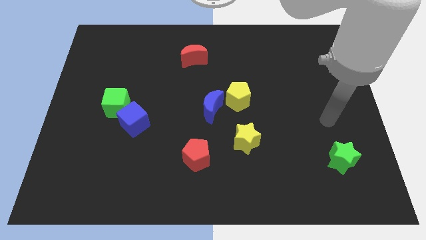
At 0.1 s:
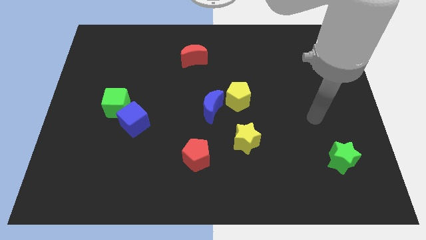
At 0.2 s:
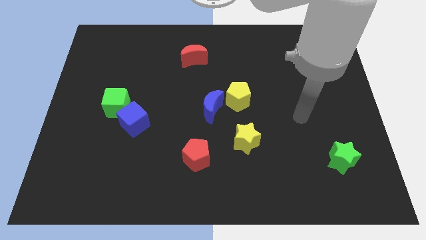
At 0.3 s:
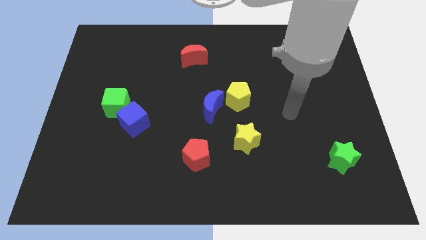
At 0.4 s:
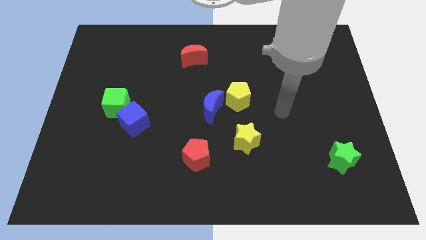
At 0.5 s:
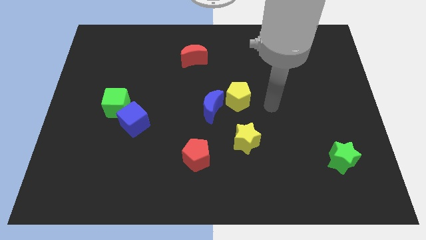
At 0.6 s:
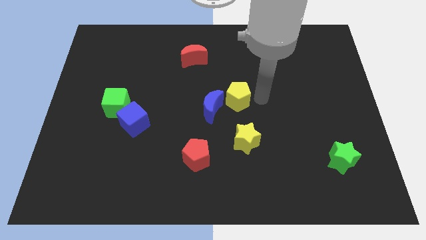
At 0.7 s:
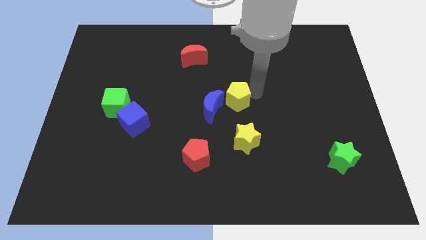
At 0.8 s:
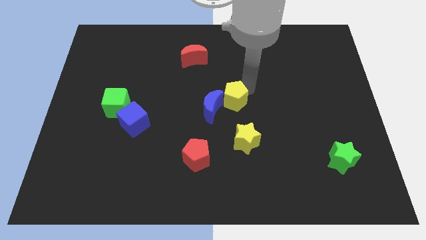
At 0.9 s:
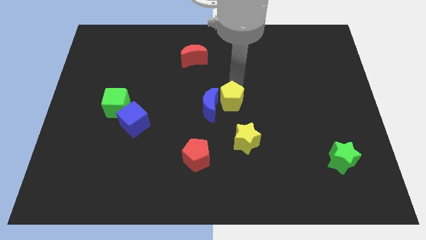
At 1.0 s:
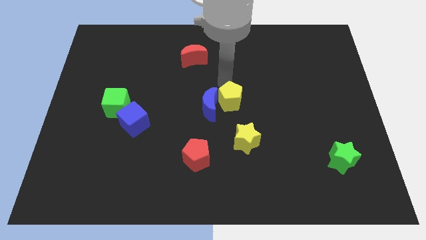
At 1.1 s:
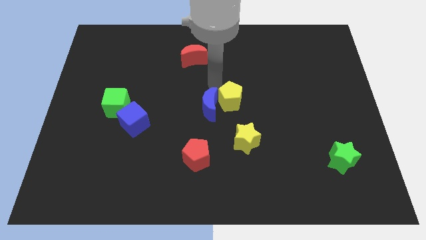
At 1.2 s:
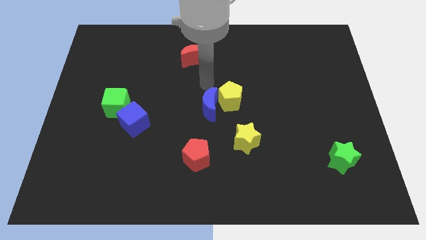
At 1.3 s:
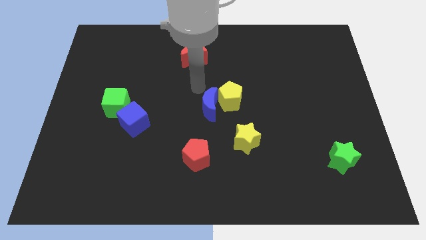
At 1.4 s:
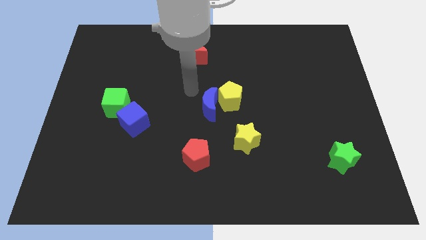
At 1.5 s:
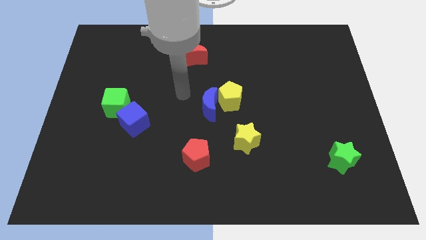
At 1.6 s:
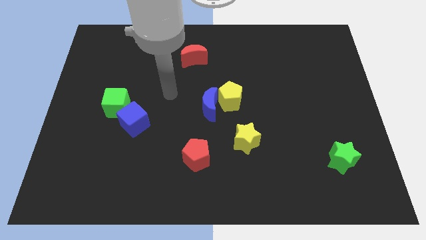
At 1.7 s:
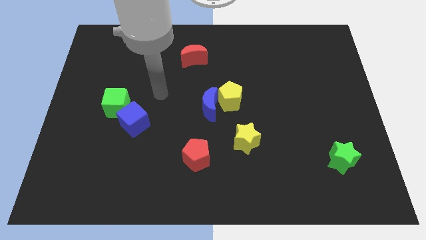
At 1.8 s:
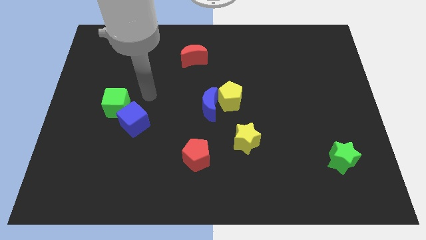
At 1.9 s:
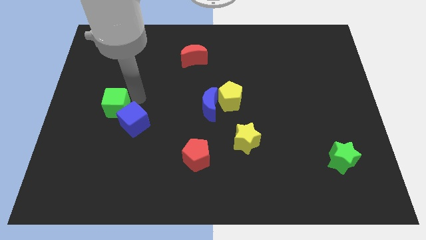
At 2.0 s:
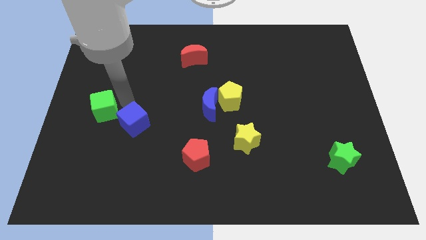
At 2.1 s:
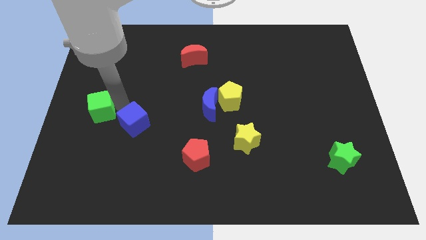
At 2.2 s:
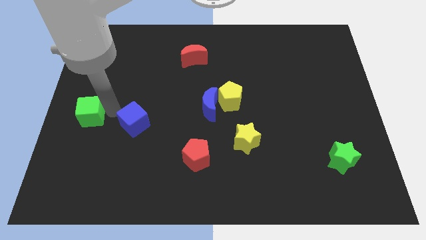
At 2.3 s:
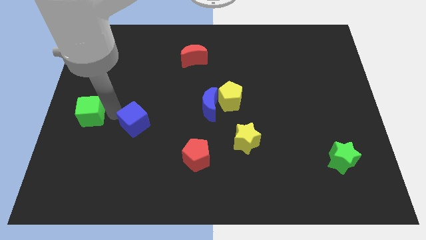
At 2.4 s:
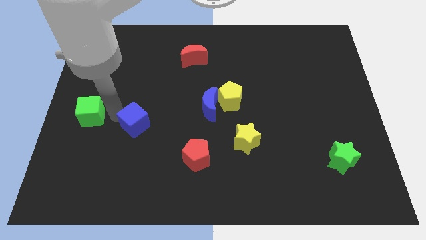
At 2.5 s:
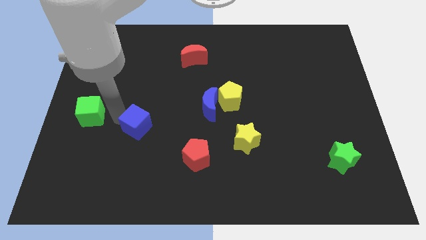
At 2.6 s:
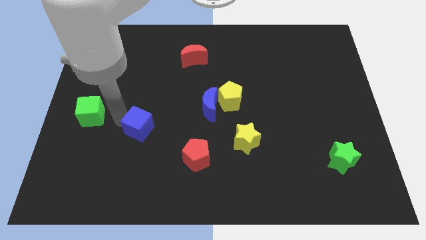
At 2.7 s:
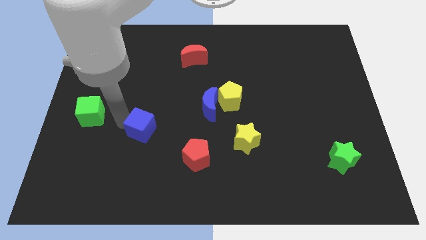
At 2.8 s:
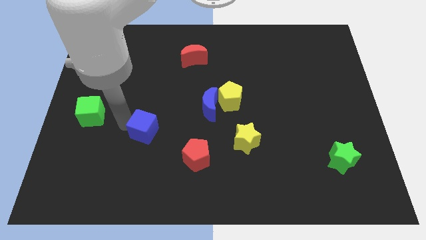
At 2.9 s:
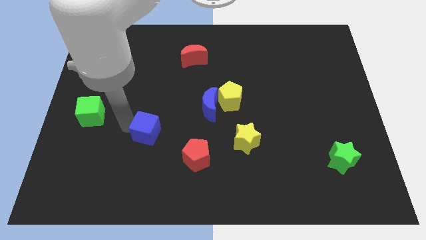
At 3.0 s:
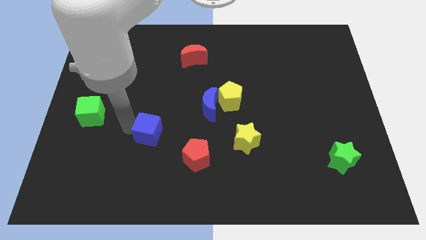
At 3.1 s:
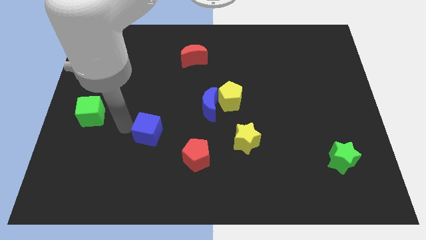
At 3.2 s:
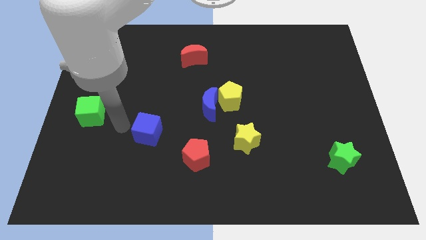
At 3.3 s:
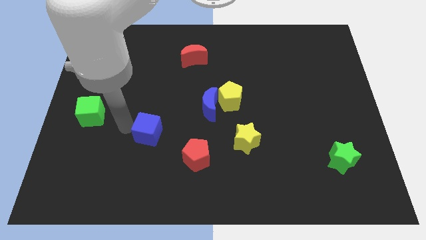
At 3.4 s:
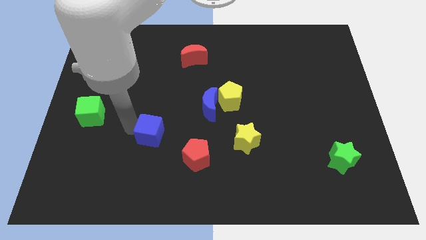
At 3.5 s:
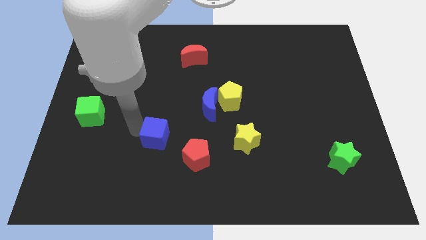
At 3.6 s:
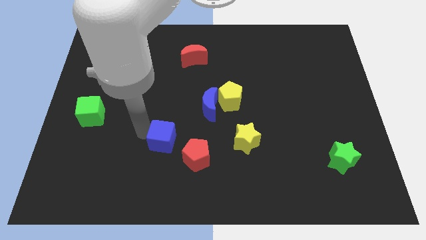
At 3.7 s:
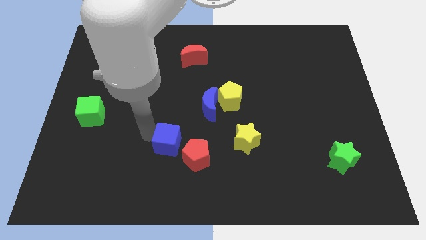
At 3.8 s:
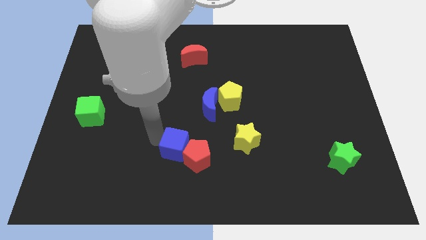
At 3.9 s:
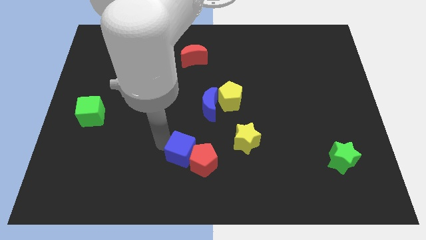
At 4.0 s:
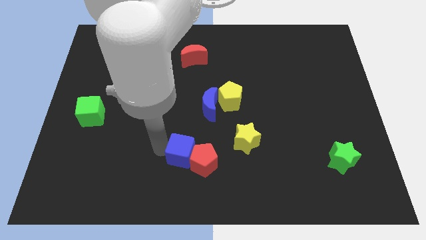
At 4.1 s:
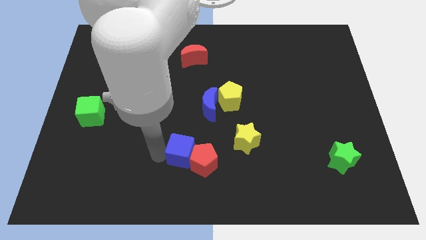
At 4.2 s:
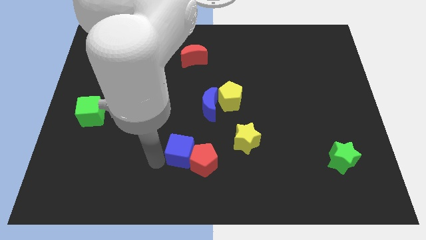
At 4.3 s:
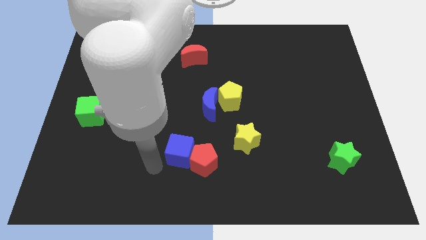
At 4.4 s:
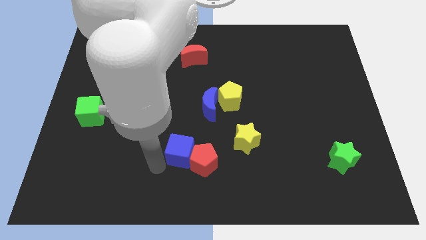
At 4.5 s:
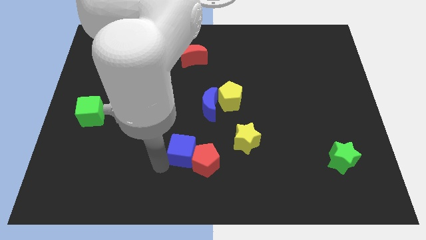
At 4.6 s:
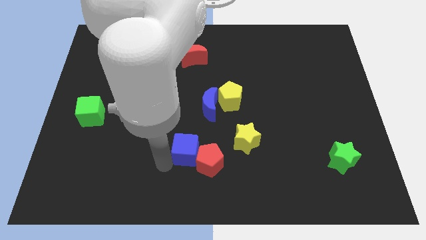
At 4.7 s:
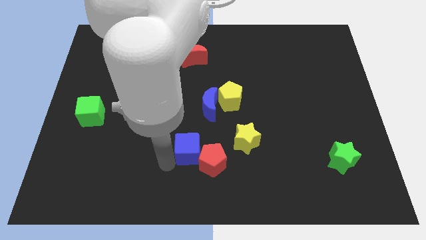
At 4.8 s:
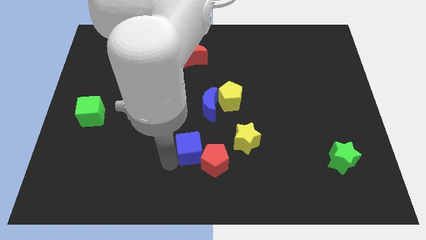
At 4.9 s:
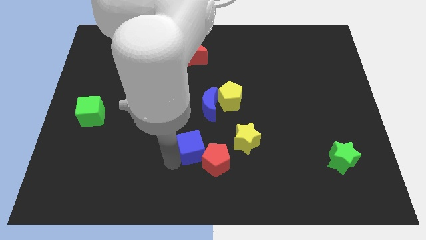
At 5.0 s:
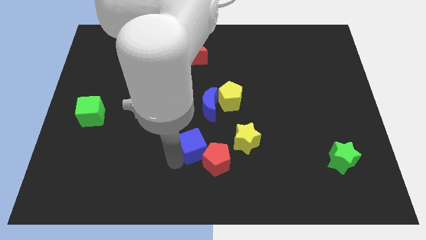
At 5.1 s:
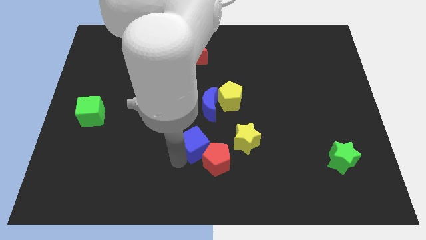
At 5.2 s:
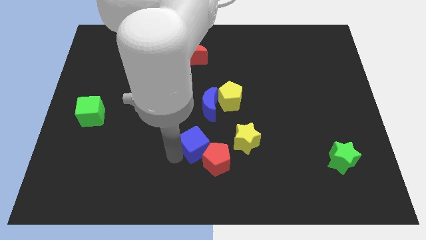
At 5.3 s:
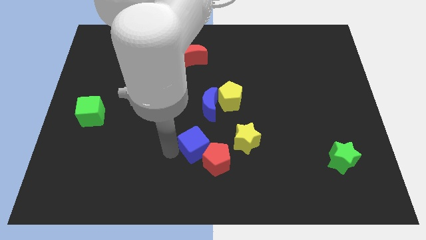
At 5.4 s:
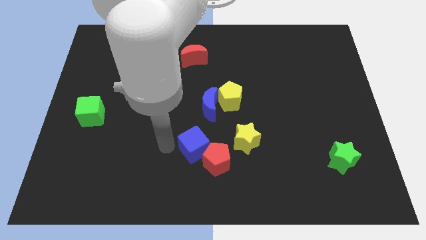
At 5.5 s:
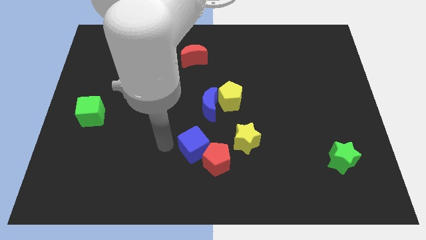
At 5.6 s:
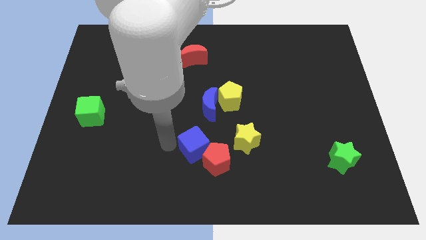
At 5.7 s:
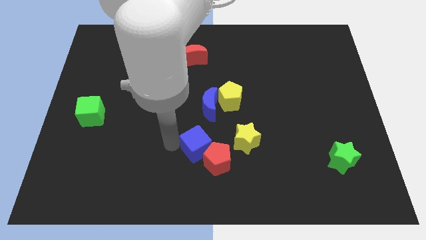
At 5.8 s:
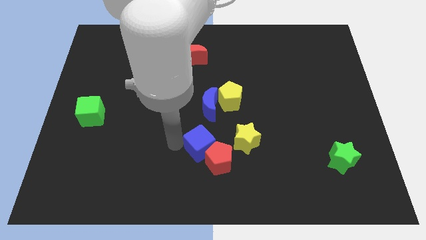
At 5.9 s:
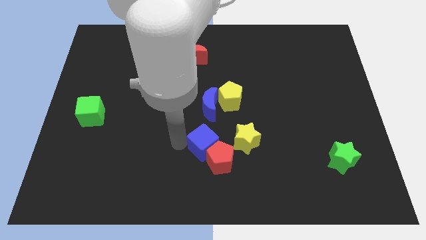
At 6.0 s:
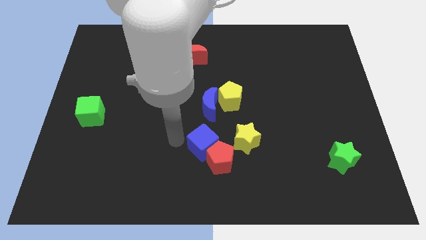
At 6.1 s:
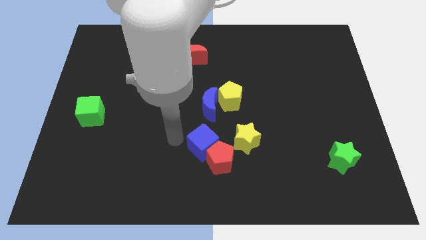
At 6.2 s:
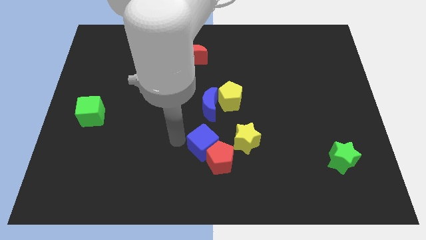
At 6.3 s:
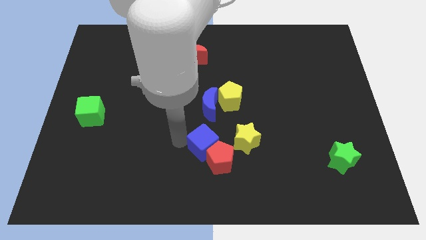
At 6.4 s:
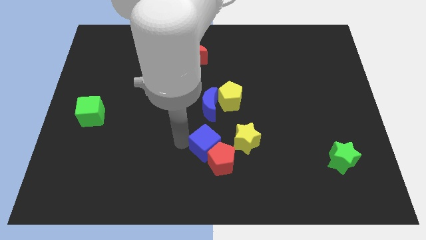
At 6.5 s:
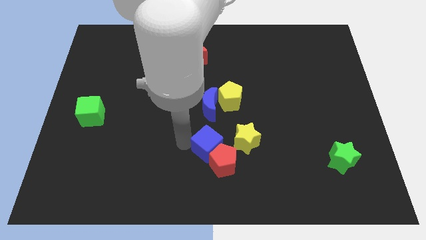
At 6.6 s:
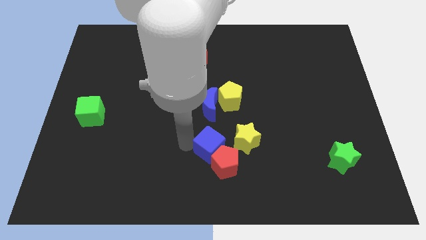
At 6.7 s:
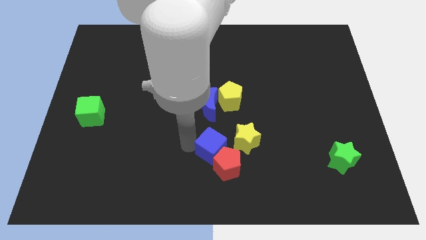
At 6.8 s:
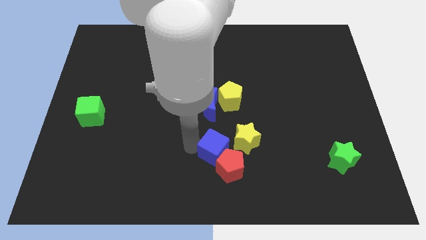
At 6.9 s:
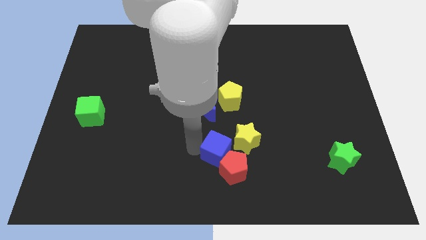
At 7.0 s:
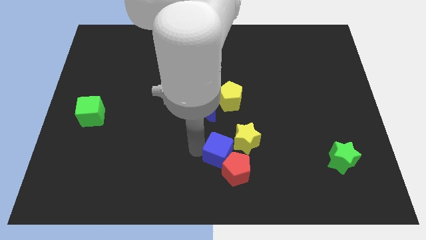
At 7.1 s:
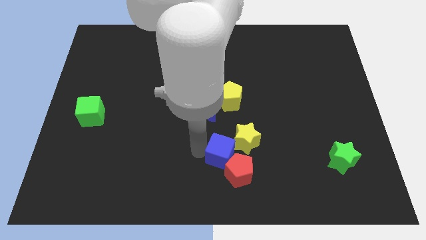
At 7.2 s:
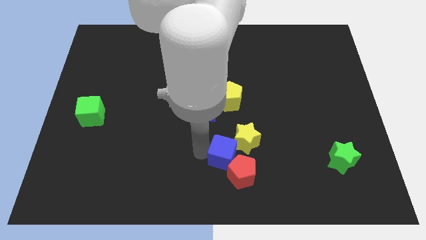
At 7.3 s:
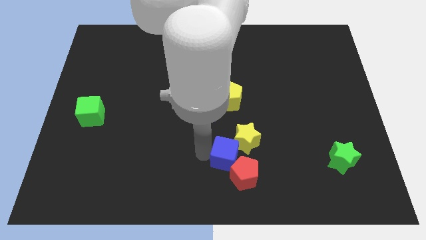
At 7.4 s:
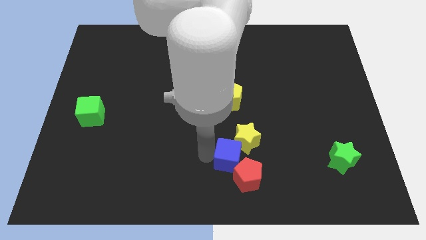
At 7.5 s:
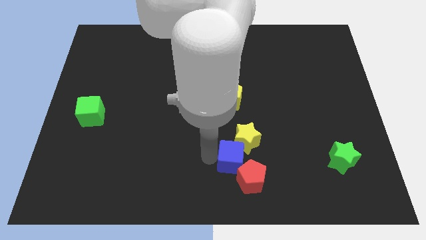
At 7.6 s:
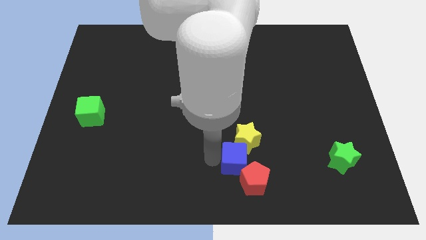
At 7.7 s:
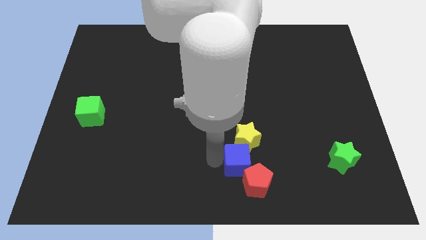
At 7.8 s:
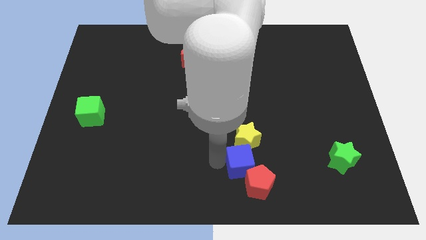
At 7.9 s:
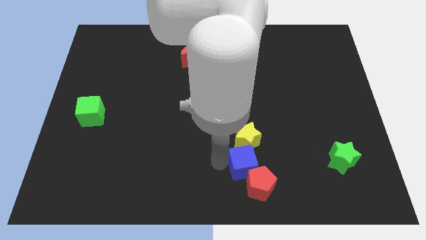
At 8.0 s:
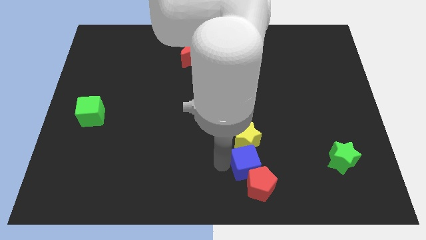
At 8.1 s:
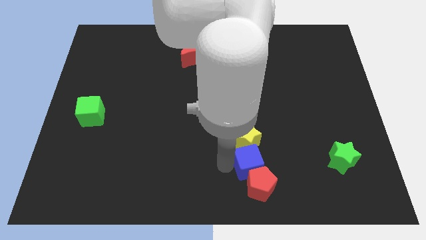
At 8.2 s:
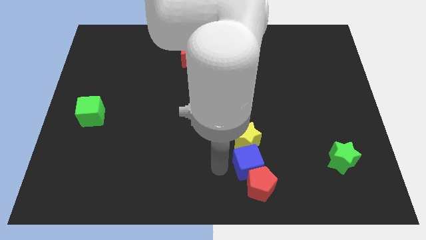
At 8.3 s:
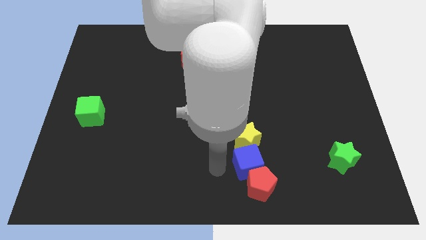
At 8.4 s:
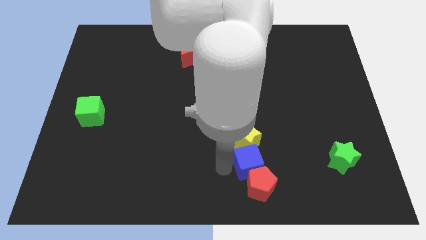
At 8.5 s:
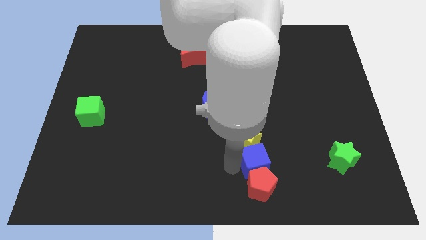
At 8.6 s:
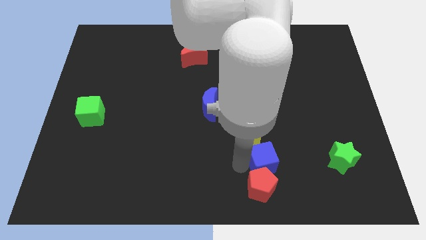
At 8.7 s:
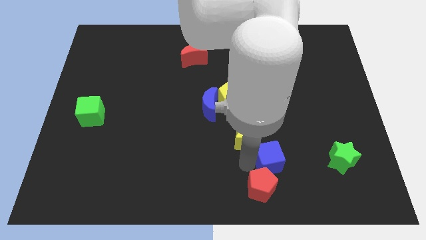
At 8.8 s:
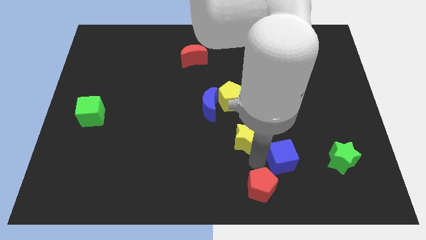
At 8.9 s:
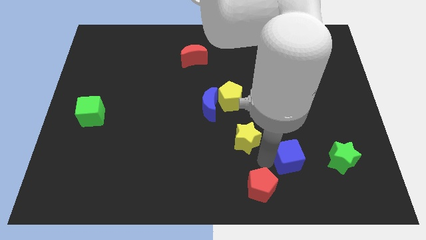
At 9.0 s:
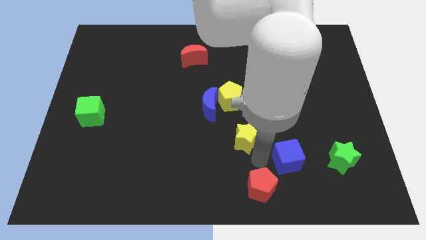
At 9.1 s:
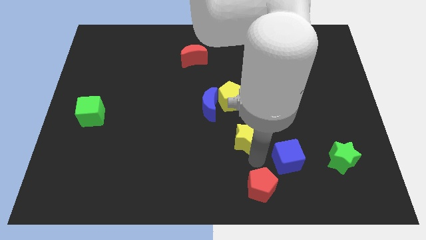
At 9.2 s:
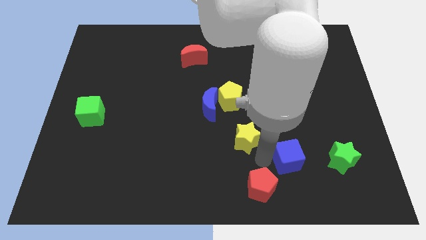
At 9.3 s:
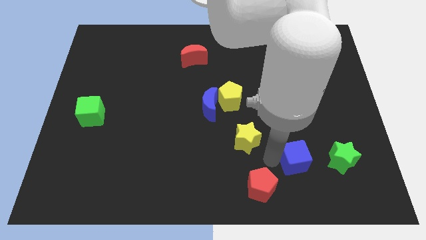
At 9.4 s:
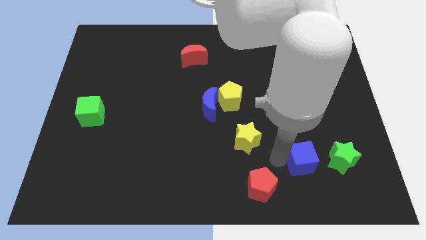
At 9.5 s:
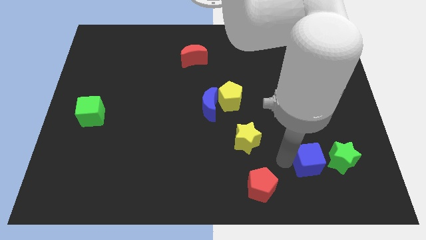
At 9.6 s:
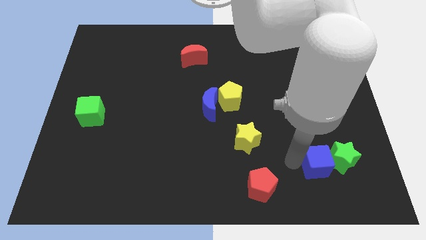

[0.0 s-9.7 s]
push the blue cube close to the green star
